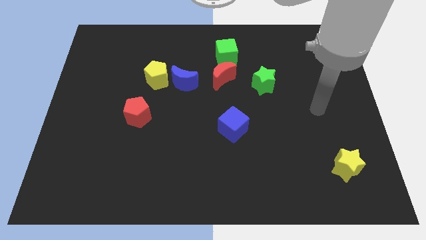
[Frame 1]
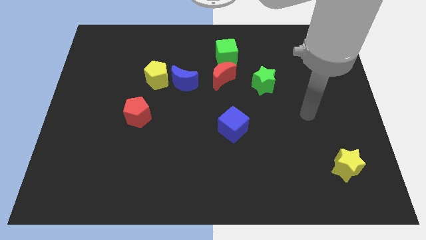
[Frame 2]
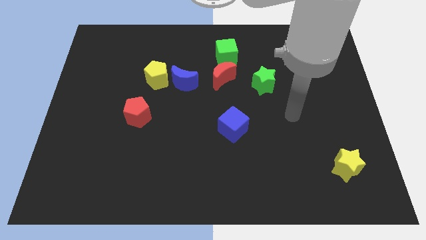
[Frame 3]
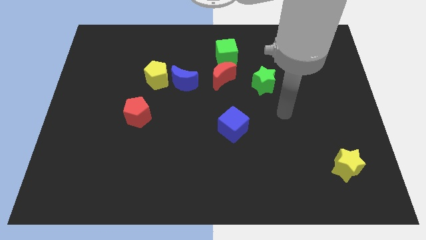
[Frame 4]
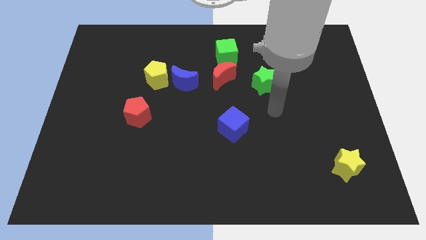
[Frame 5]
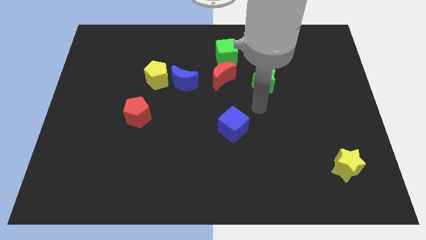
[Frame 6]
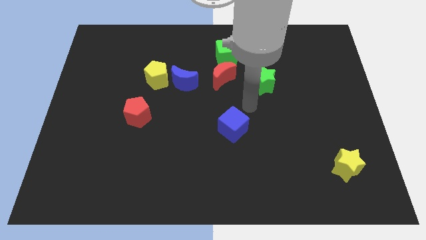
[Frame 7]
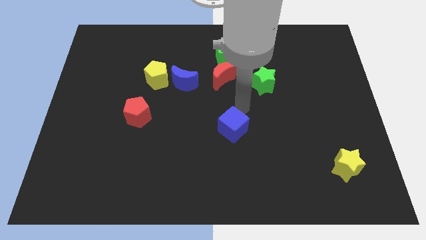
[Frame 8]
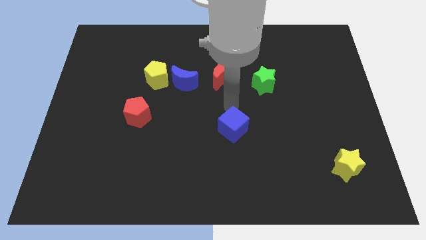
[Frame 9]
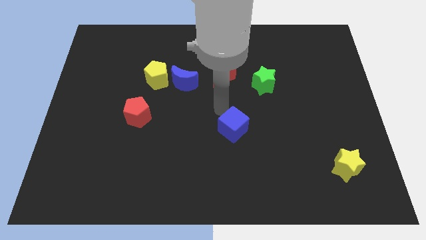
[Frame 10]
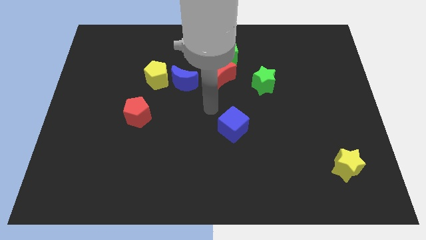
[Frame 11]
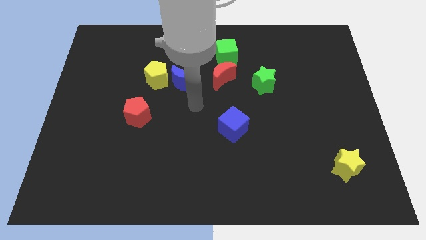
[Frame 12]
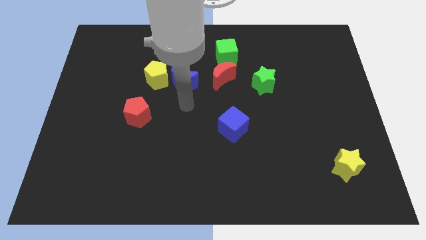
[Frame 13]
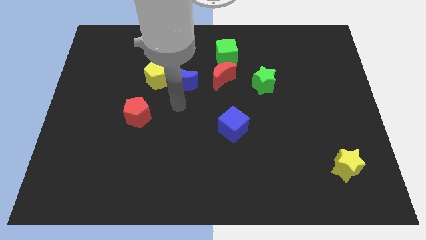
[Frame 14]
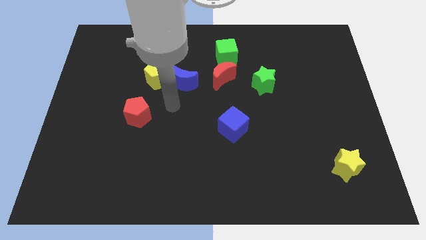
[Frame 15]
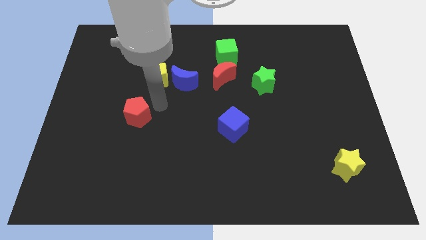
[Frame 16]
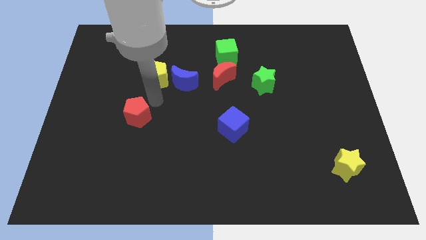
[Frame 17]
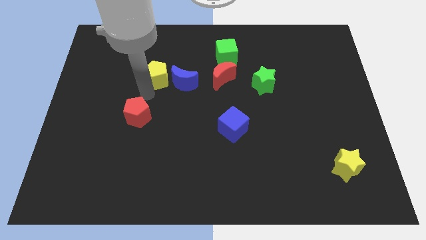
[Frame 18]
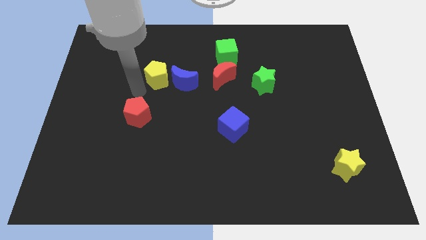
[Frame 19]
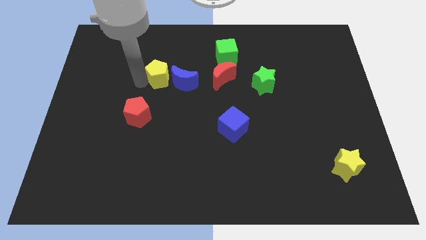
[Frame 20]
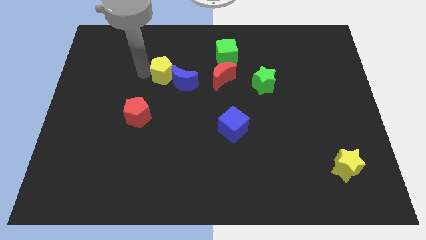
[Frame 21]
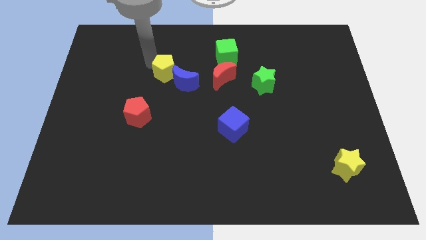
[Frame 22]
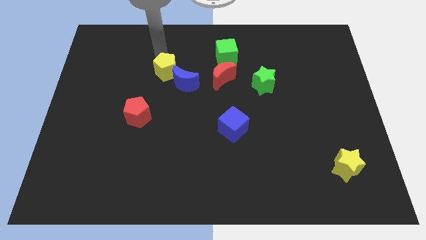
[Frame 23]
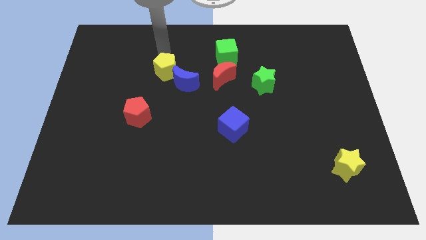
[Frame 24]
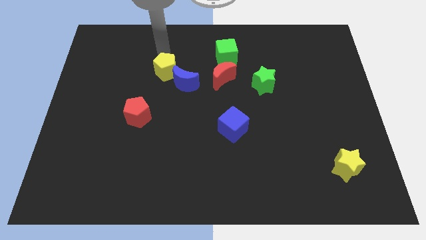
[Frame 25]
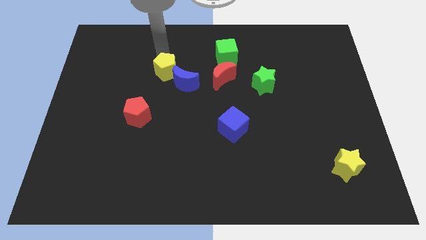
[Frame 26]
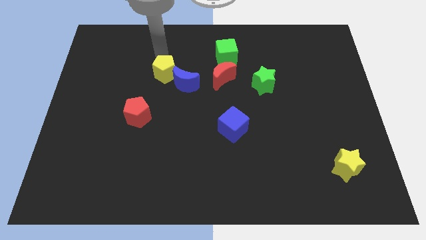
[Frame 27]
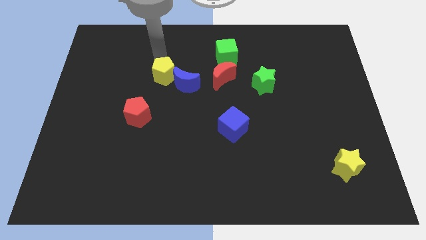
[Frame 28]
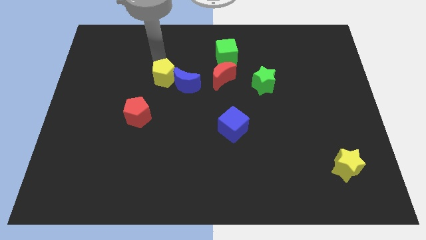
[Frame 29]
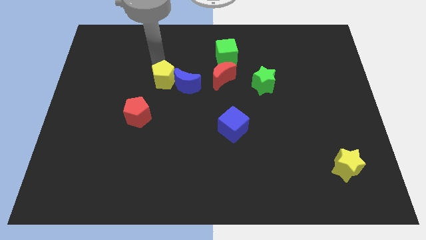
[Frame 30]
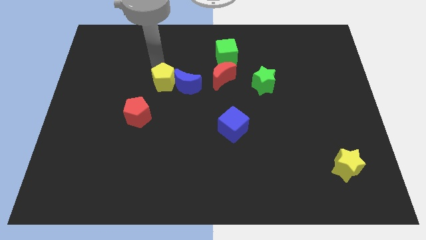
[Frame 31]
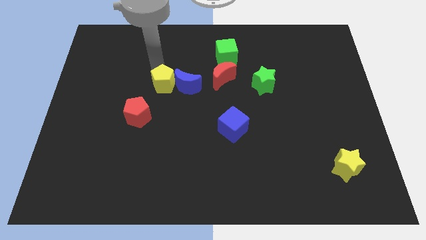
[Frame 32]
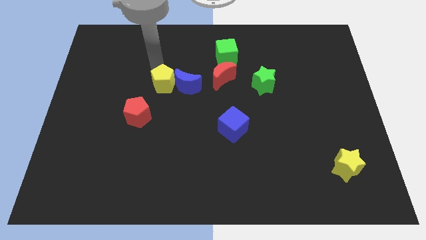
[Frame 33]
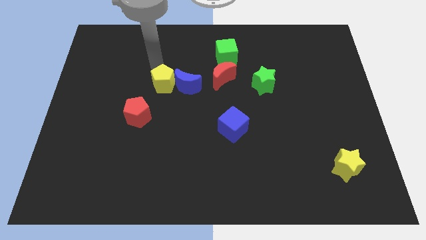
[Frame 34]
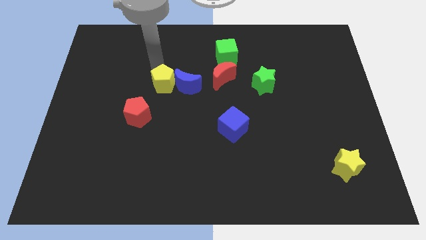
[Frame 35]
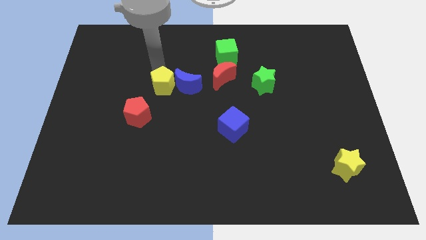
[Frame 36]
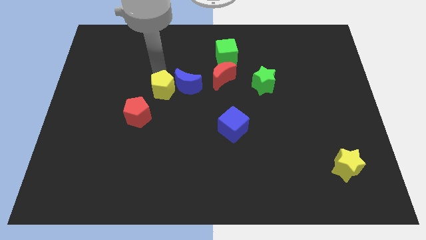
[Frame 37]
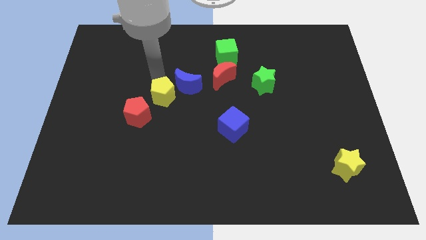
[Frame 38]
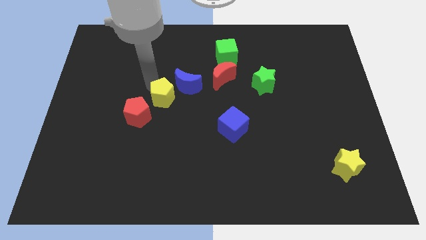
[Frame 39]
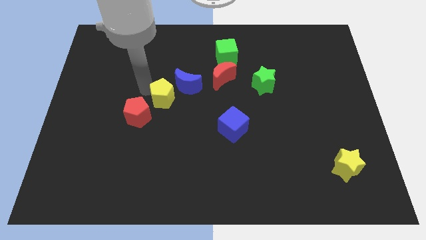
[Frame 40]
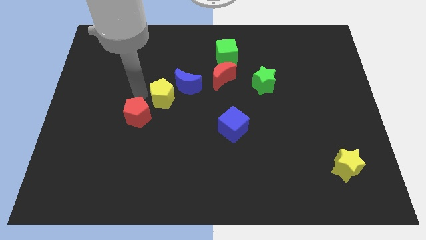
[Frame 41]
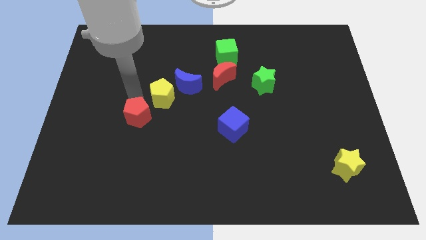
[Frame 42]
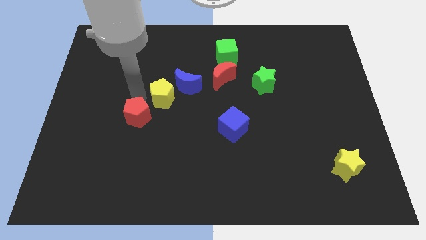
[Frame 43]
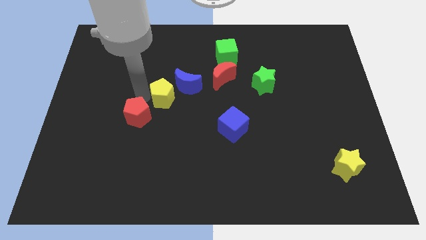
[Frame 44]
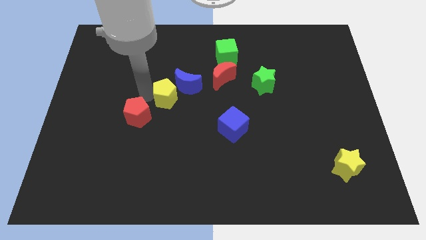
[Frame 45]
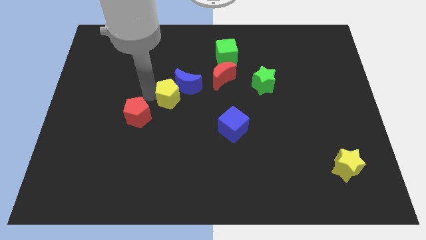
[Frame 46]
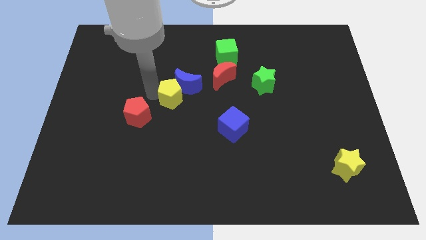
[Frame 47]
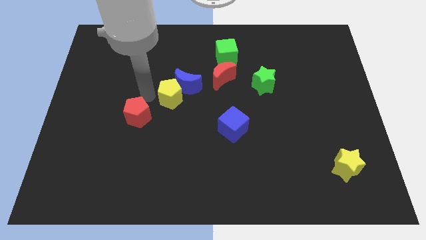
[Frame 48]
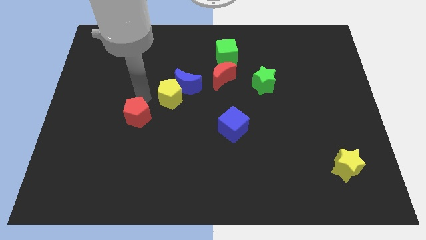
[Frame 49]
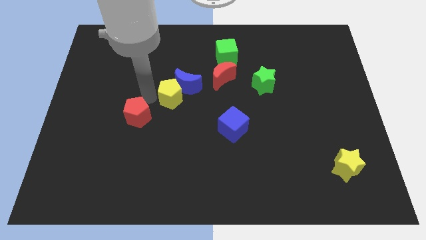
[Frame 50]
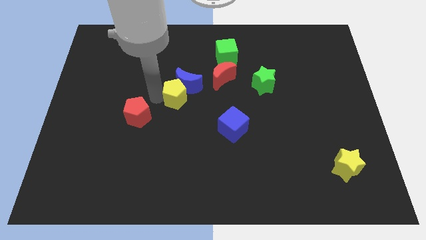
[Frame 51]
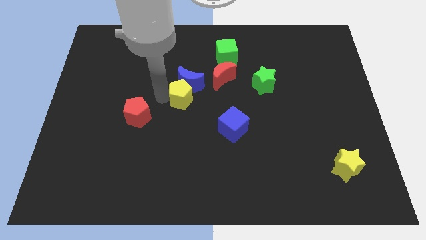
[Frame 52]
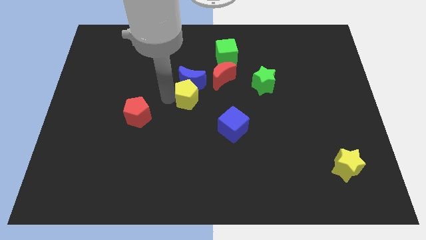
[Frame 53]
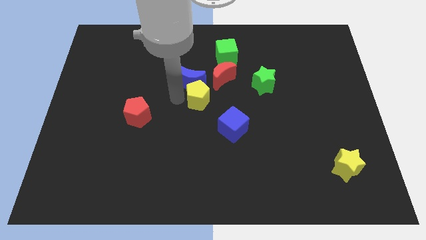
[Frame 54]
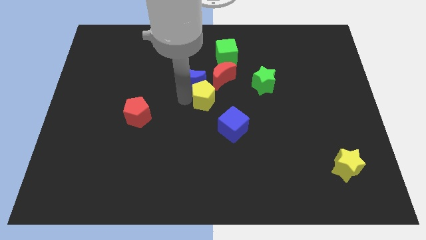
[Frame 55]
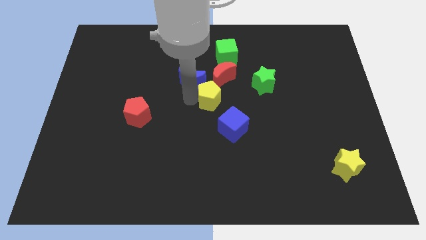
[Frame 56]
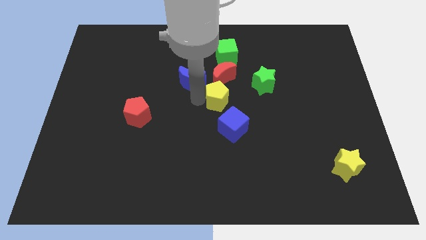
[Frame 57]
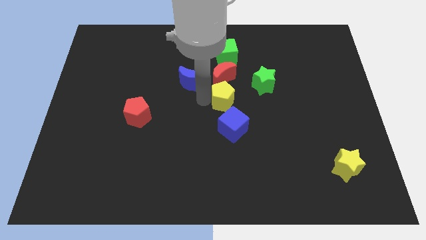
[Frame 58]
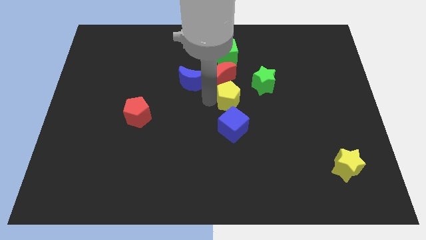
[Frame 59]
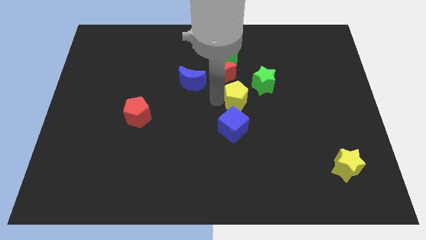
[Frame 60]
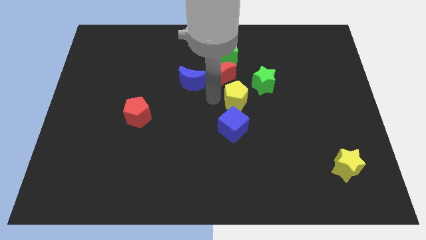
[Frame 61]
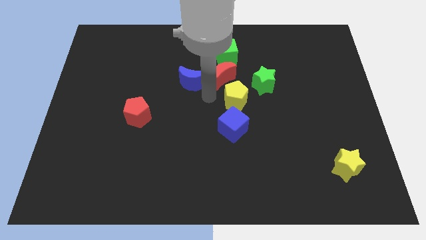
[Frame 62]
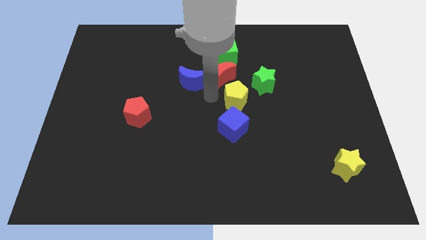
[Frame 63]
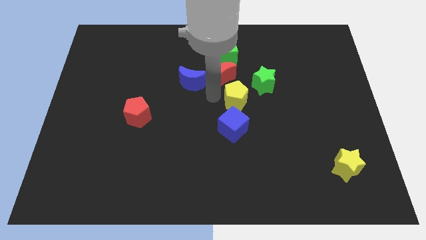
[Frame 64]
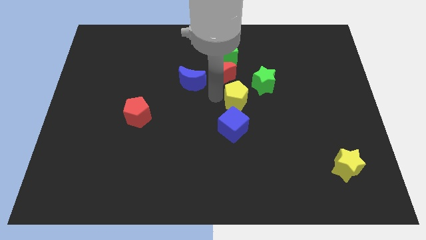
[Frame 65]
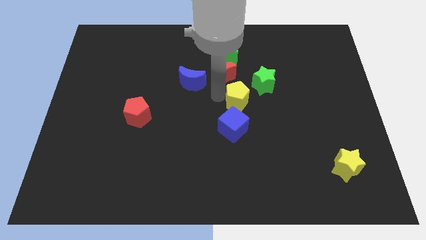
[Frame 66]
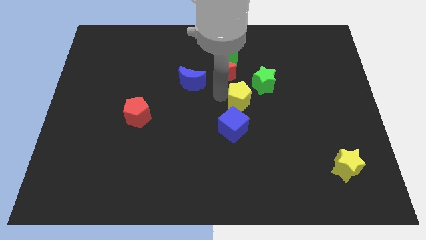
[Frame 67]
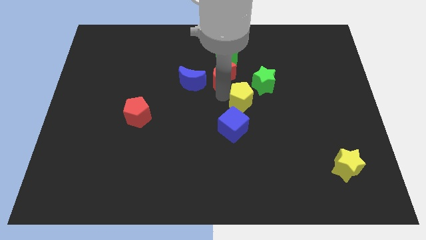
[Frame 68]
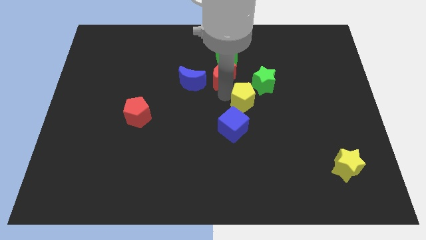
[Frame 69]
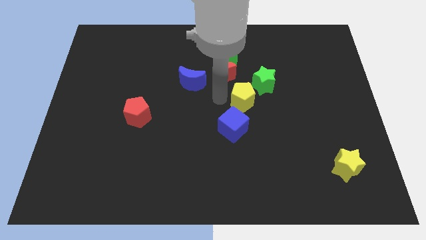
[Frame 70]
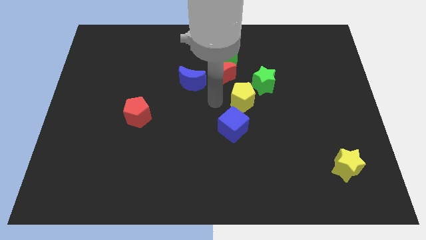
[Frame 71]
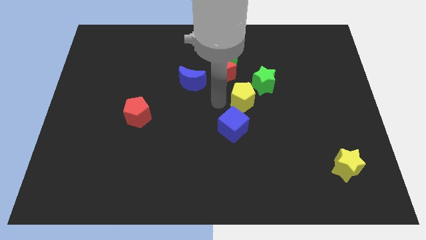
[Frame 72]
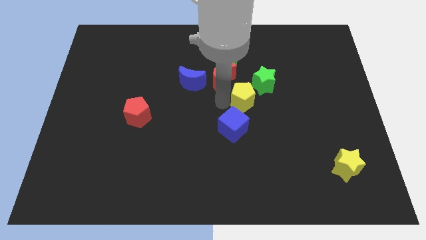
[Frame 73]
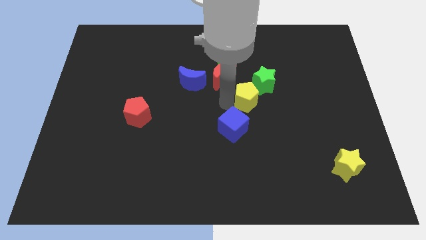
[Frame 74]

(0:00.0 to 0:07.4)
push the yellow pentagon right

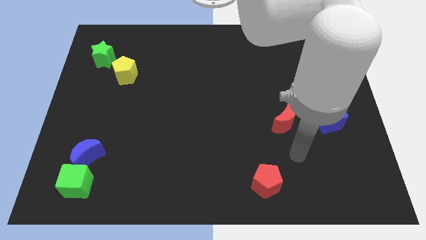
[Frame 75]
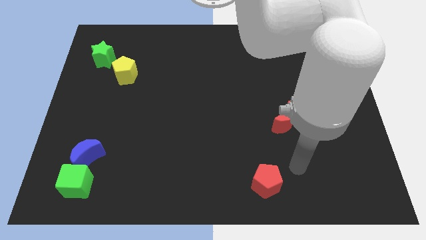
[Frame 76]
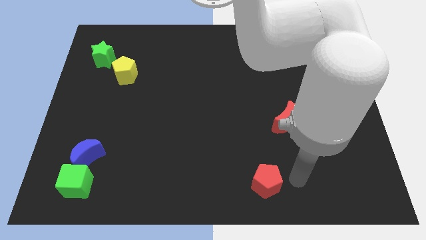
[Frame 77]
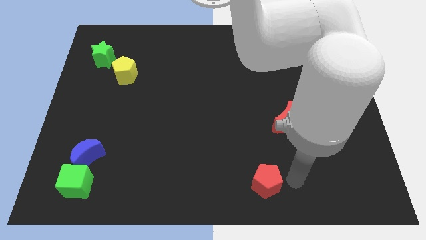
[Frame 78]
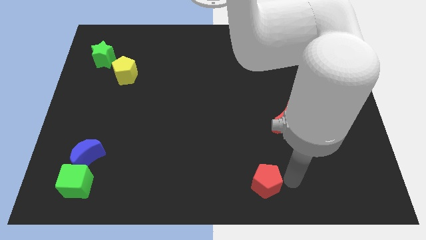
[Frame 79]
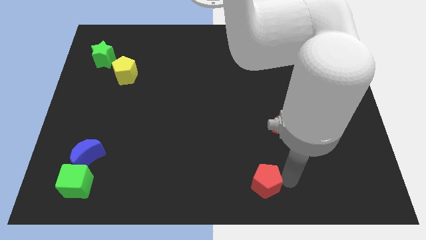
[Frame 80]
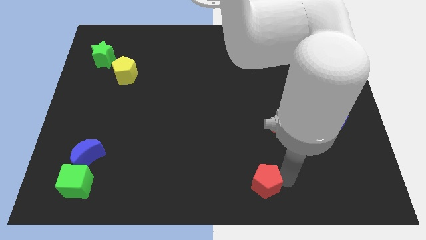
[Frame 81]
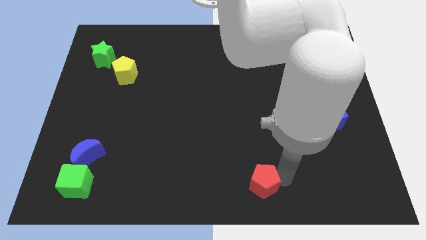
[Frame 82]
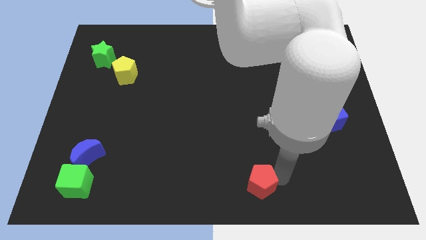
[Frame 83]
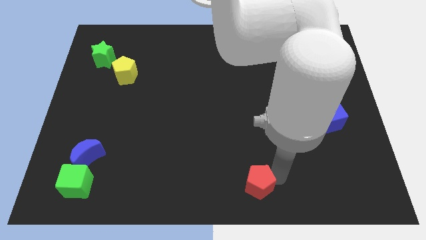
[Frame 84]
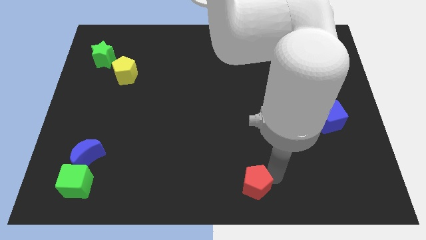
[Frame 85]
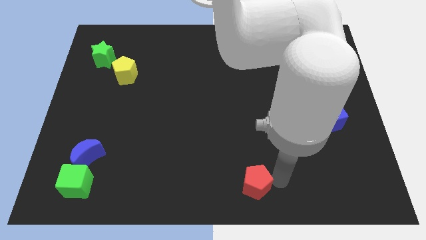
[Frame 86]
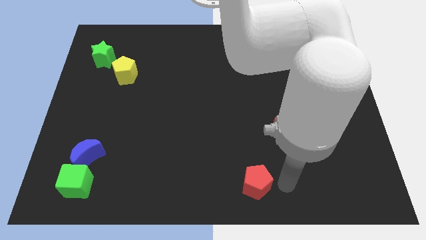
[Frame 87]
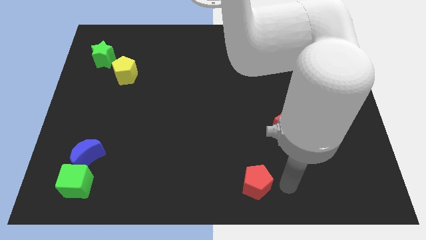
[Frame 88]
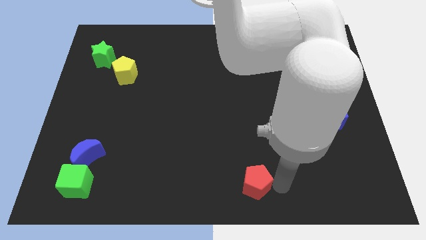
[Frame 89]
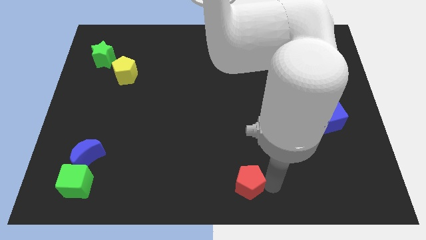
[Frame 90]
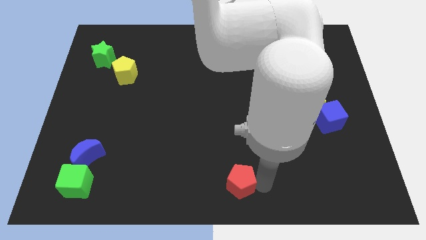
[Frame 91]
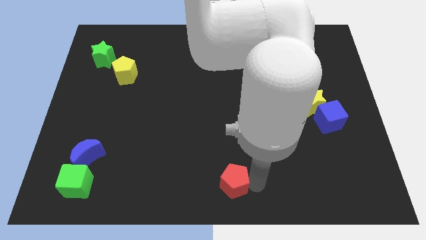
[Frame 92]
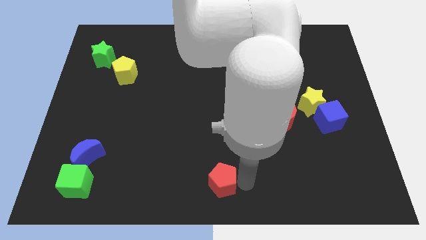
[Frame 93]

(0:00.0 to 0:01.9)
move the red pentagon left a little
